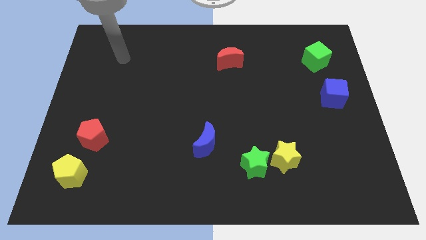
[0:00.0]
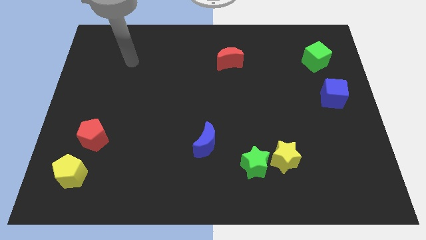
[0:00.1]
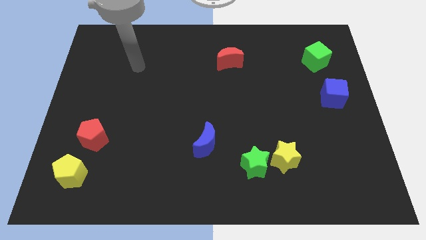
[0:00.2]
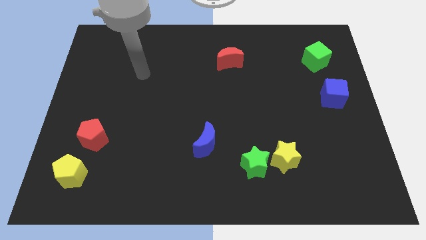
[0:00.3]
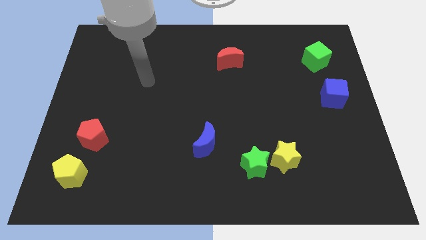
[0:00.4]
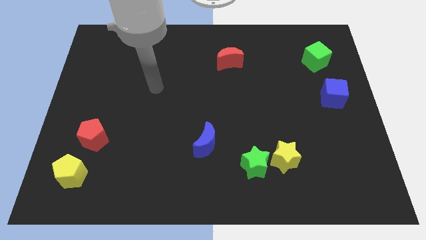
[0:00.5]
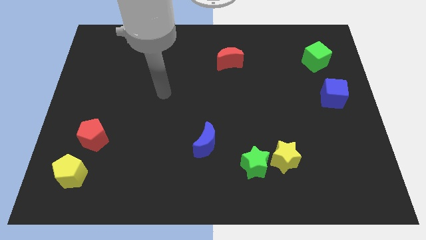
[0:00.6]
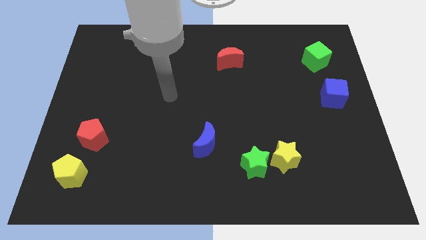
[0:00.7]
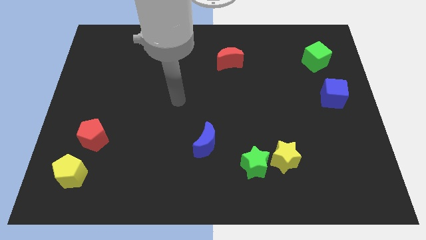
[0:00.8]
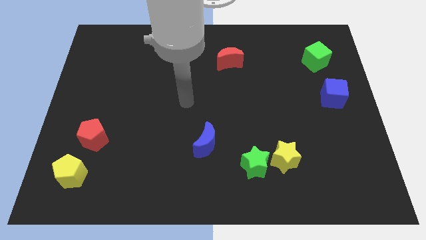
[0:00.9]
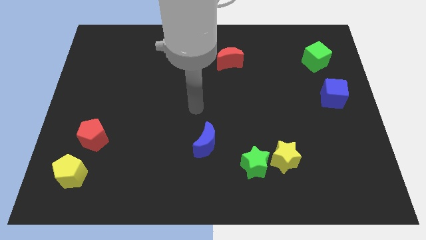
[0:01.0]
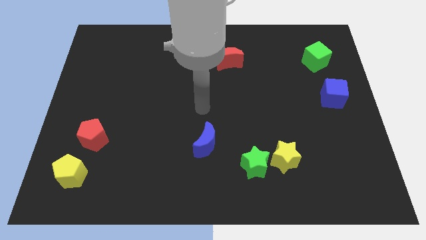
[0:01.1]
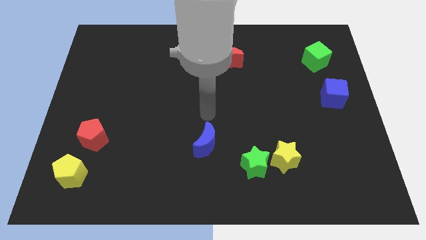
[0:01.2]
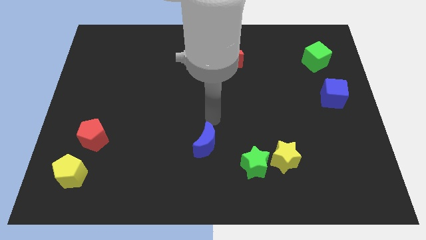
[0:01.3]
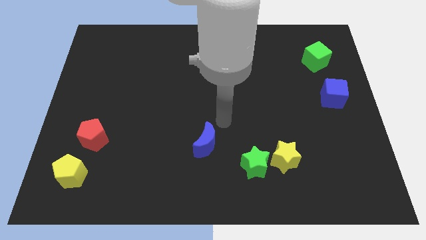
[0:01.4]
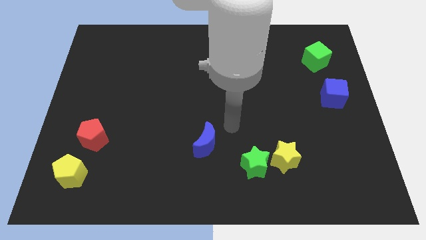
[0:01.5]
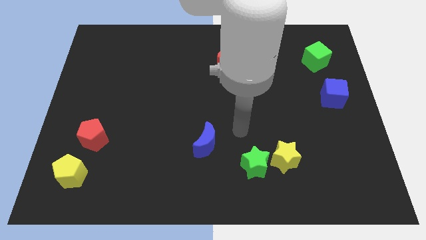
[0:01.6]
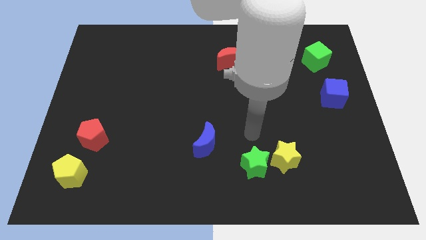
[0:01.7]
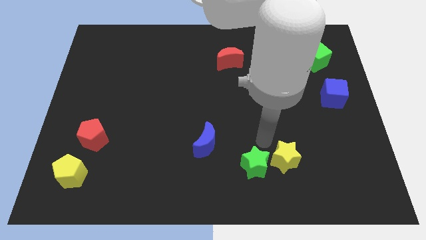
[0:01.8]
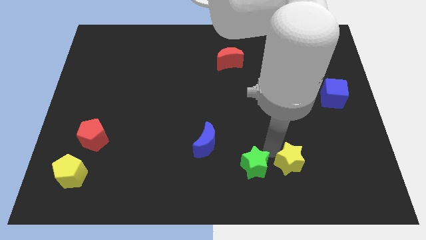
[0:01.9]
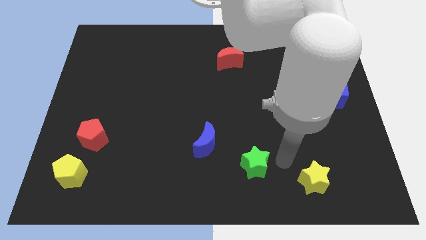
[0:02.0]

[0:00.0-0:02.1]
move the green star away from the yellow star

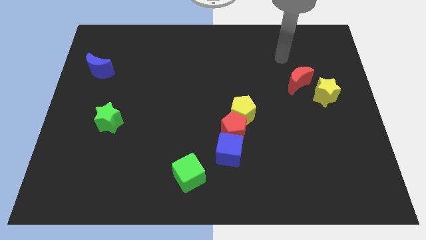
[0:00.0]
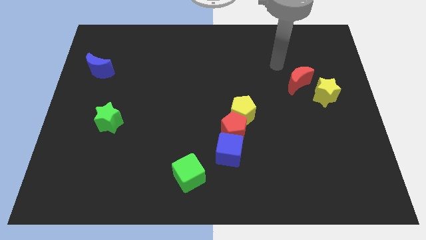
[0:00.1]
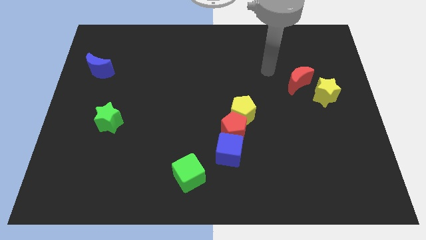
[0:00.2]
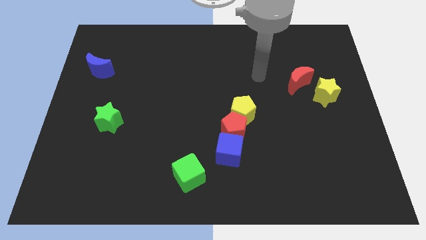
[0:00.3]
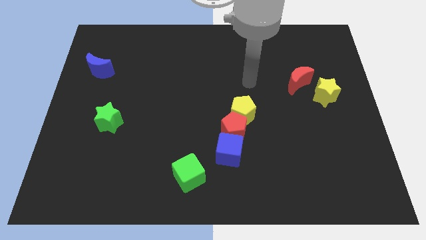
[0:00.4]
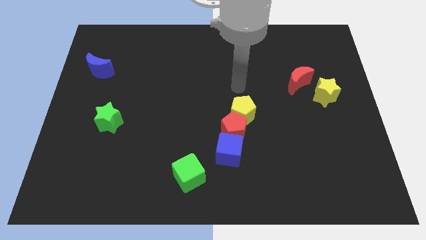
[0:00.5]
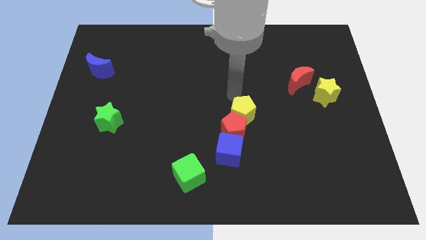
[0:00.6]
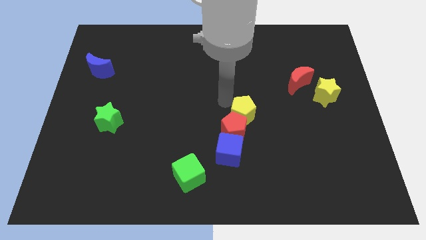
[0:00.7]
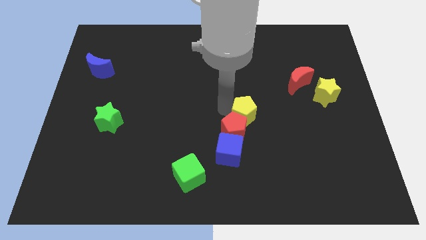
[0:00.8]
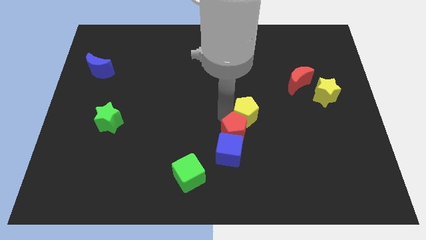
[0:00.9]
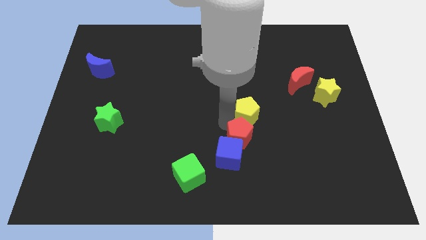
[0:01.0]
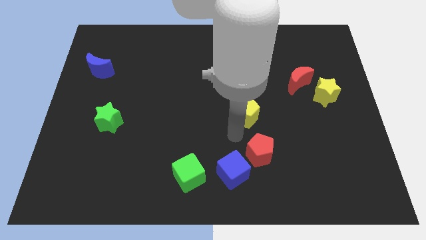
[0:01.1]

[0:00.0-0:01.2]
move the yellow pentagon away from the red pentagon

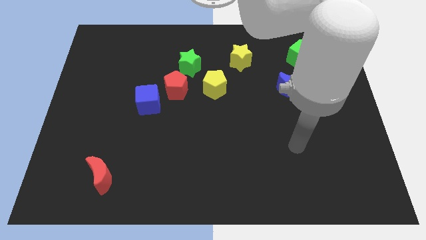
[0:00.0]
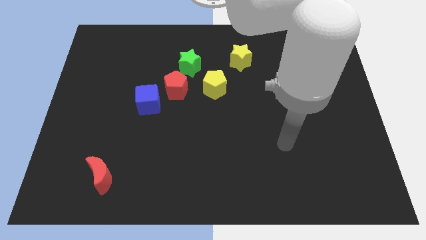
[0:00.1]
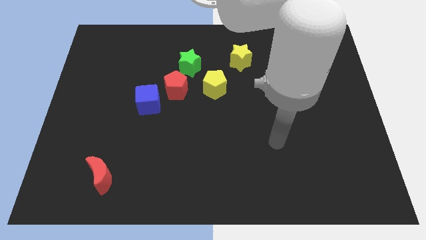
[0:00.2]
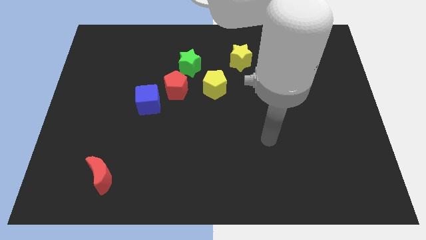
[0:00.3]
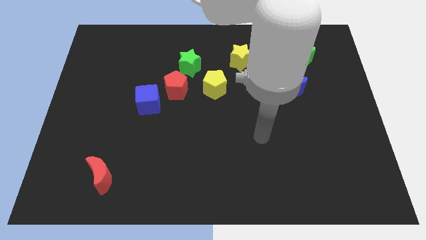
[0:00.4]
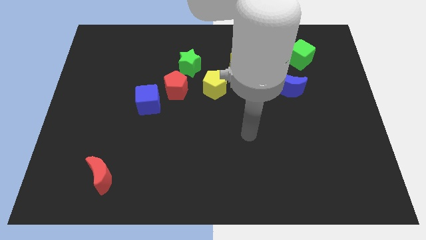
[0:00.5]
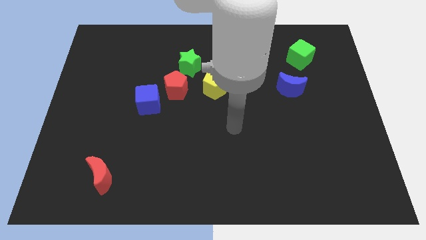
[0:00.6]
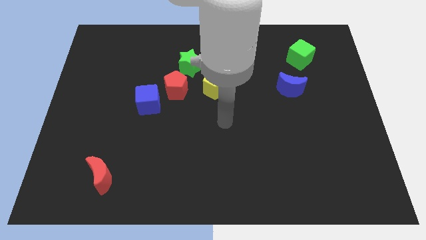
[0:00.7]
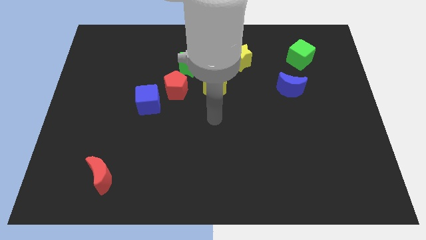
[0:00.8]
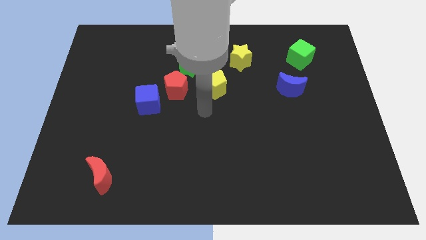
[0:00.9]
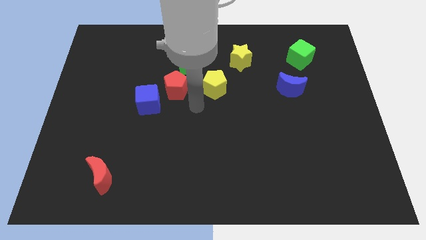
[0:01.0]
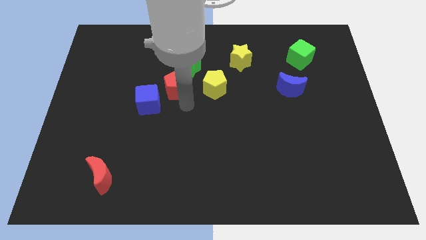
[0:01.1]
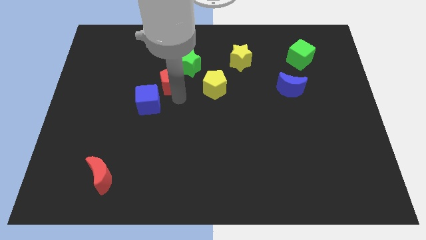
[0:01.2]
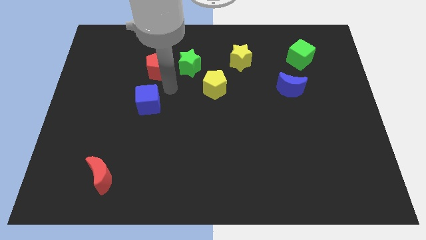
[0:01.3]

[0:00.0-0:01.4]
separate the blue cube from the red pentagon

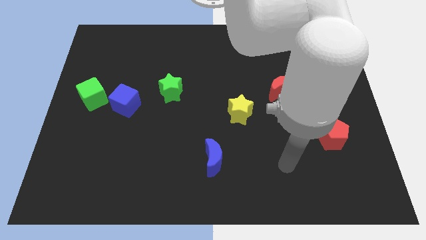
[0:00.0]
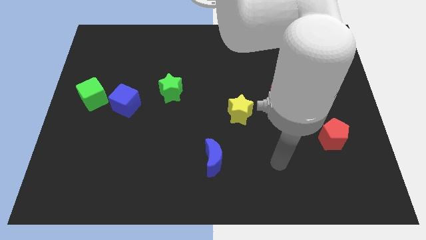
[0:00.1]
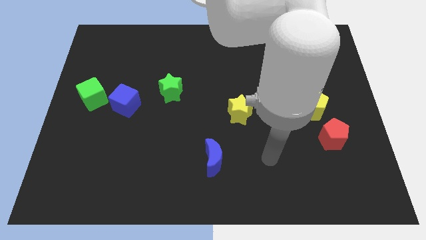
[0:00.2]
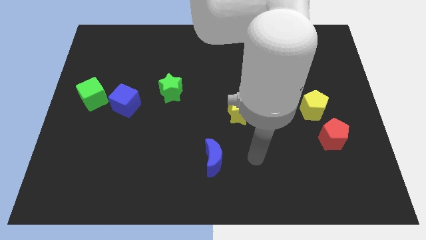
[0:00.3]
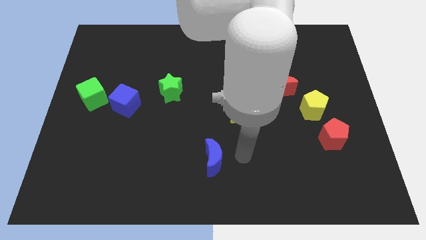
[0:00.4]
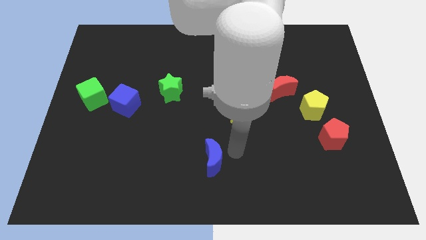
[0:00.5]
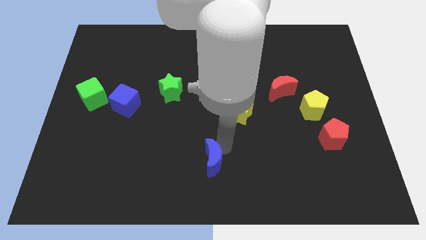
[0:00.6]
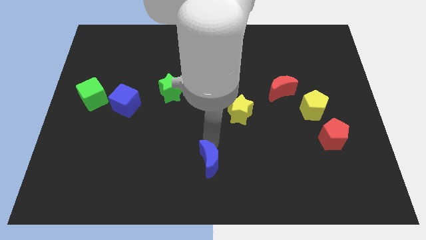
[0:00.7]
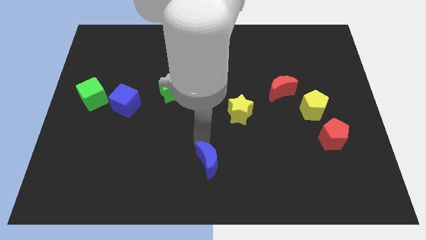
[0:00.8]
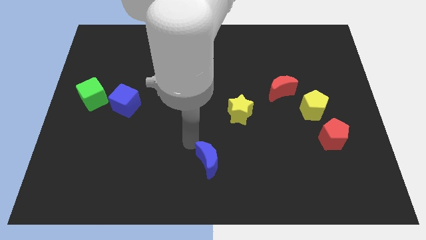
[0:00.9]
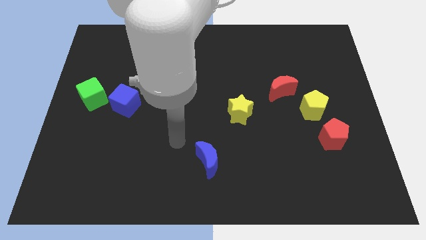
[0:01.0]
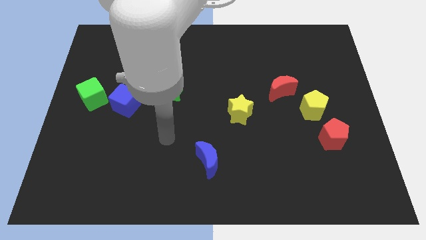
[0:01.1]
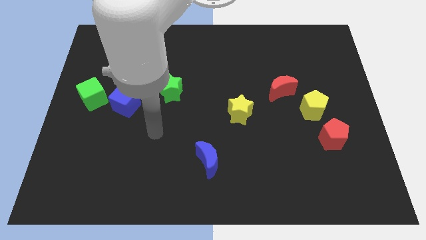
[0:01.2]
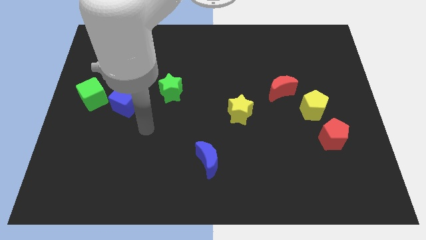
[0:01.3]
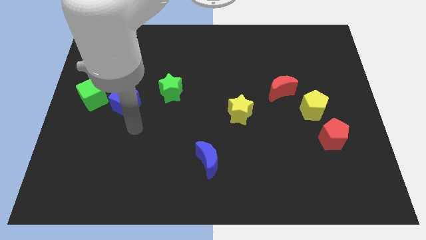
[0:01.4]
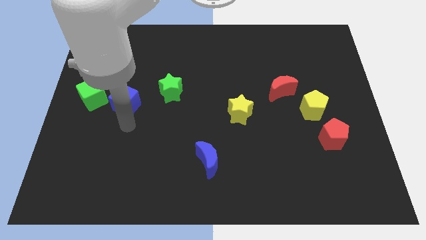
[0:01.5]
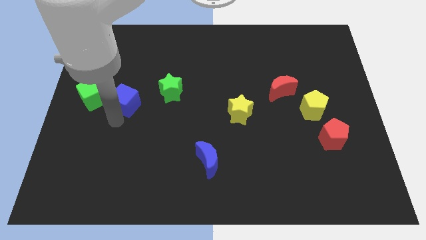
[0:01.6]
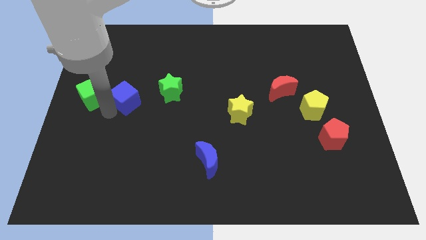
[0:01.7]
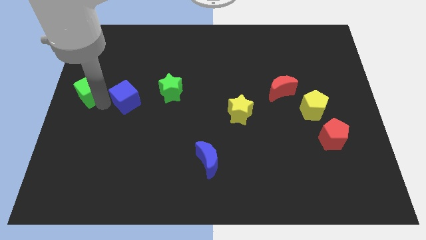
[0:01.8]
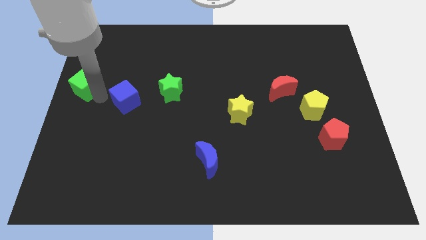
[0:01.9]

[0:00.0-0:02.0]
pull the blue cube apart from the green cube

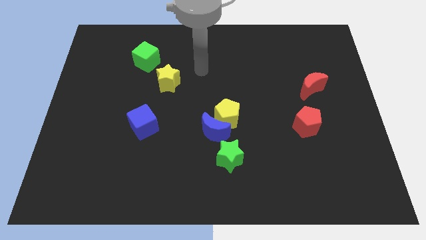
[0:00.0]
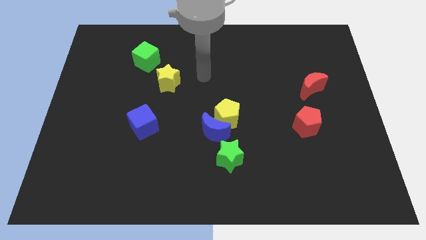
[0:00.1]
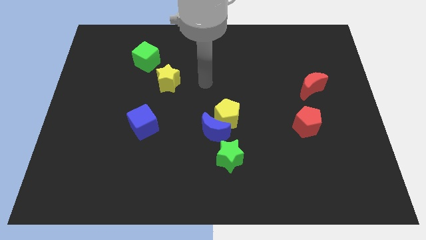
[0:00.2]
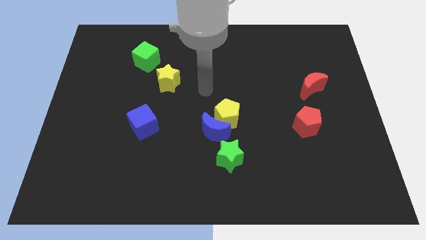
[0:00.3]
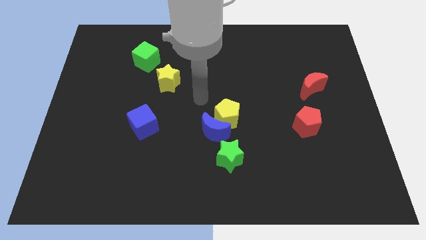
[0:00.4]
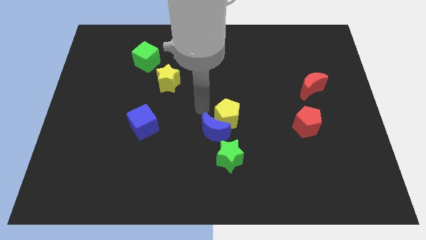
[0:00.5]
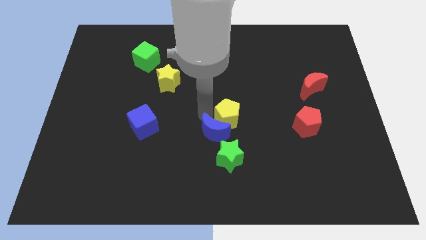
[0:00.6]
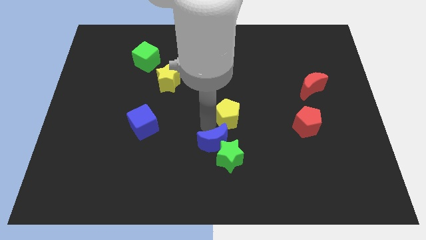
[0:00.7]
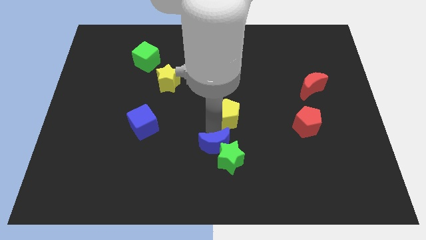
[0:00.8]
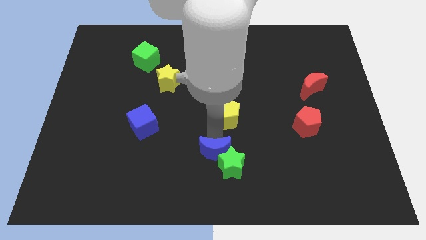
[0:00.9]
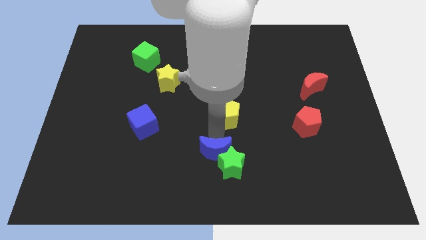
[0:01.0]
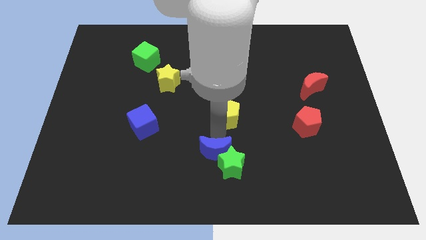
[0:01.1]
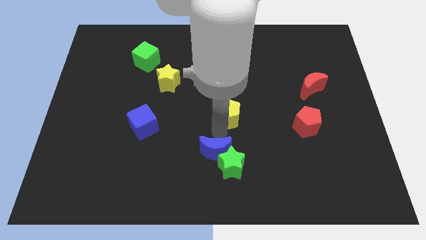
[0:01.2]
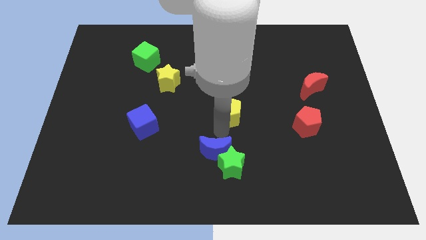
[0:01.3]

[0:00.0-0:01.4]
pull the yellow pentagon apart from the blue moon

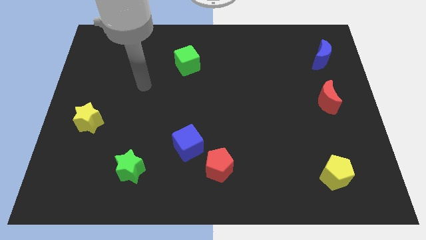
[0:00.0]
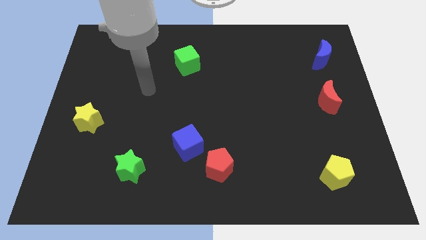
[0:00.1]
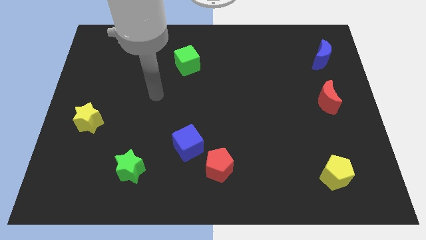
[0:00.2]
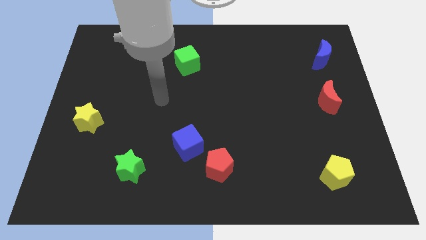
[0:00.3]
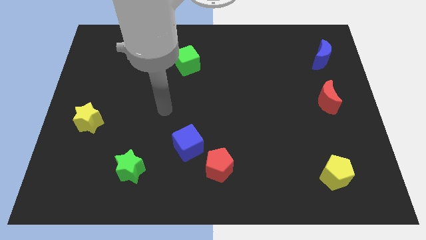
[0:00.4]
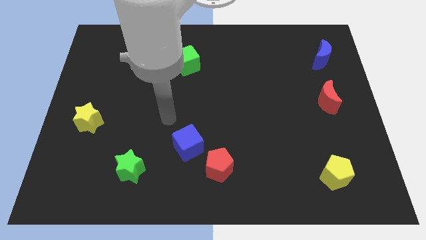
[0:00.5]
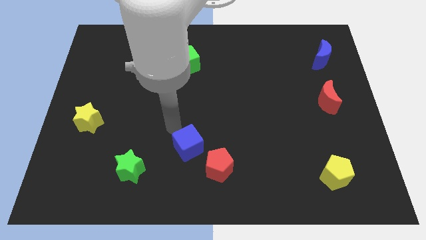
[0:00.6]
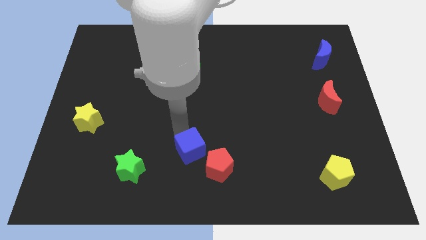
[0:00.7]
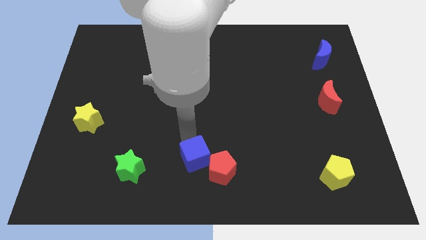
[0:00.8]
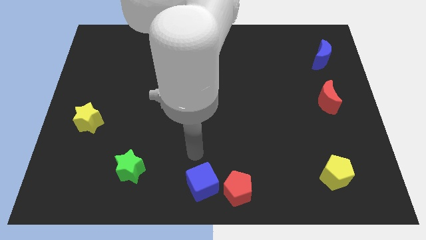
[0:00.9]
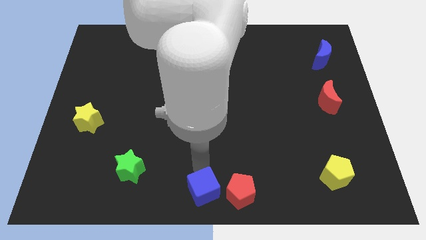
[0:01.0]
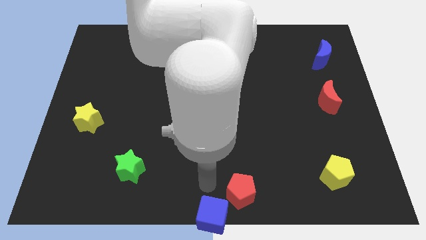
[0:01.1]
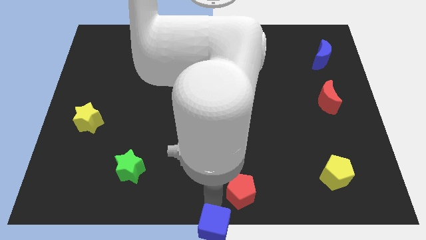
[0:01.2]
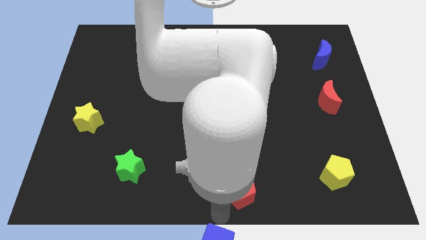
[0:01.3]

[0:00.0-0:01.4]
separate the red pentagon from the blue cube
